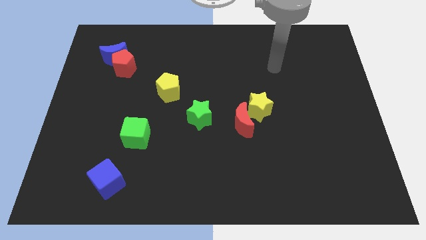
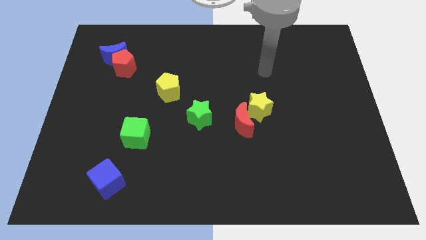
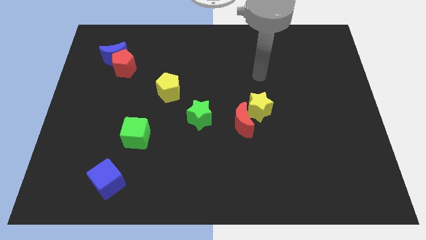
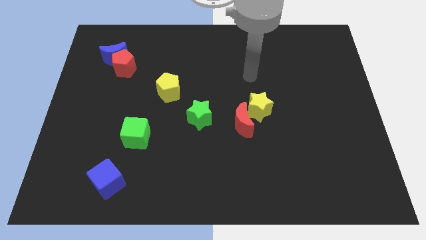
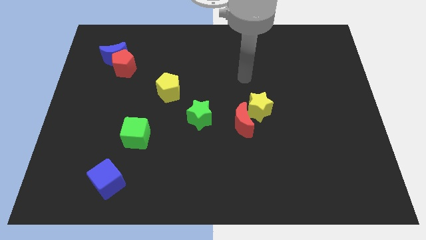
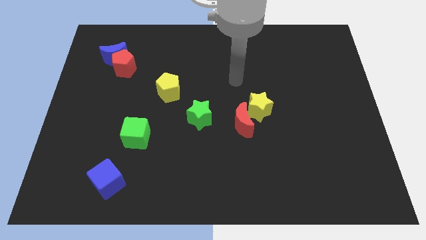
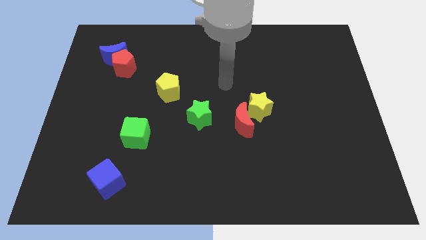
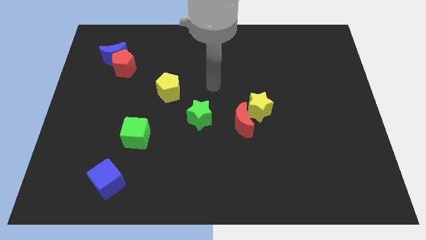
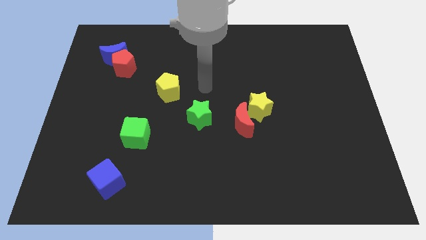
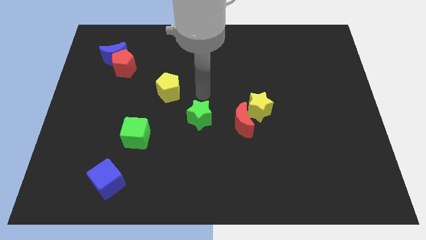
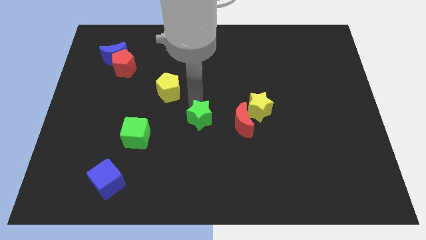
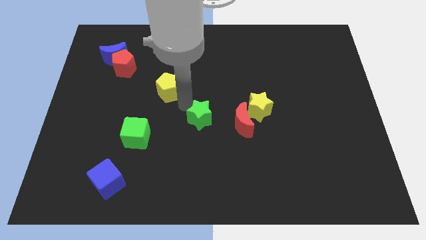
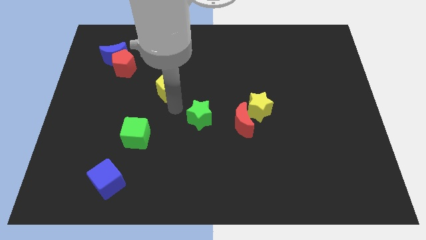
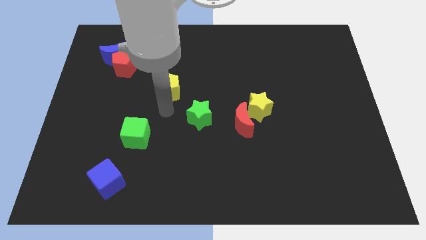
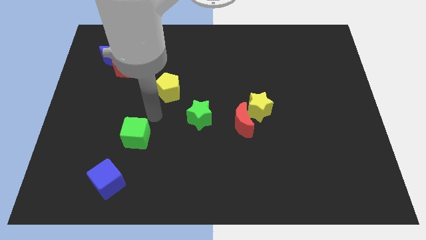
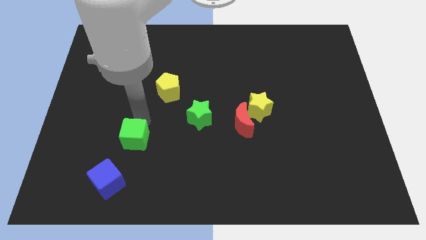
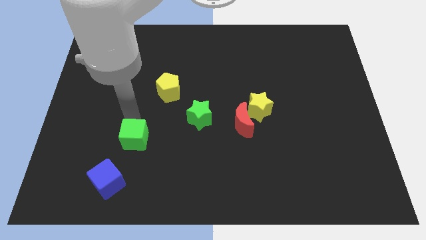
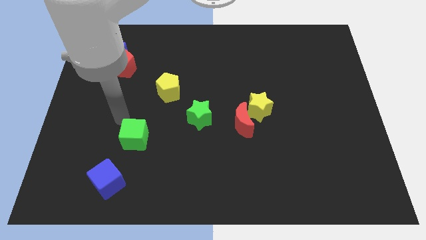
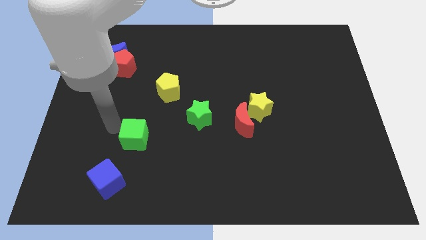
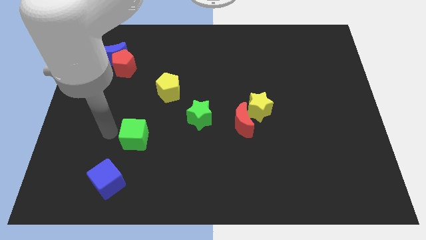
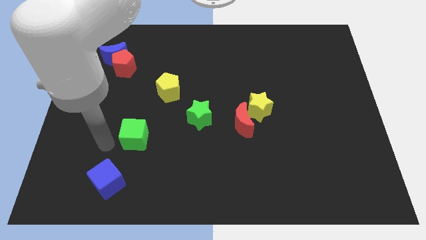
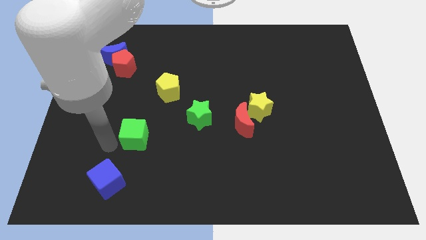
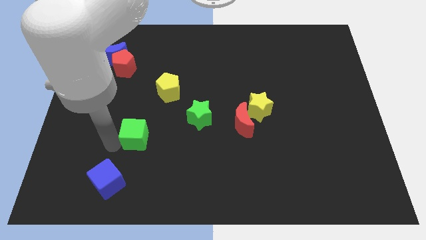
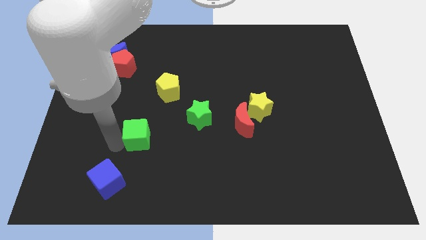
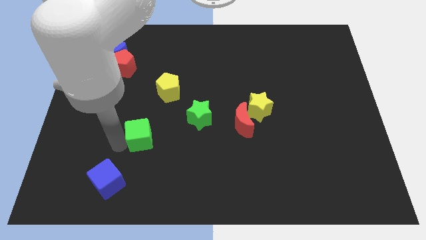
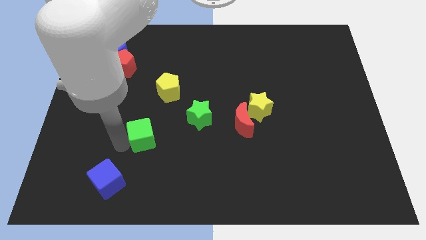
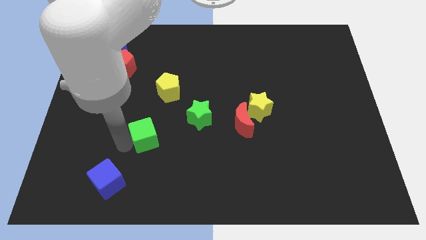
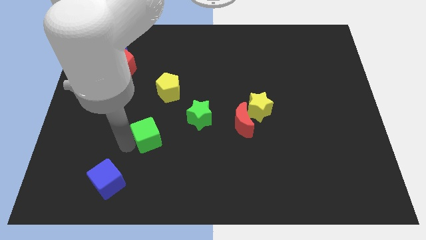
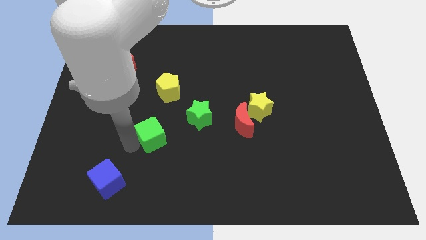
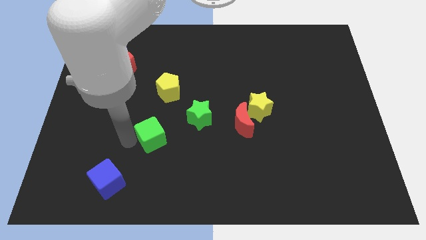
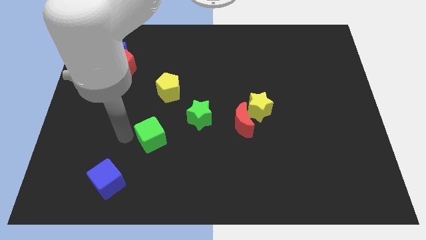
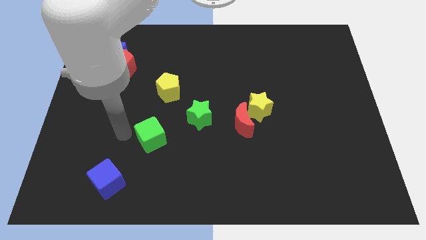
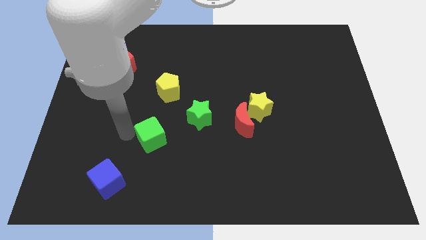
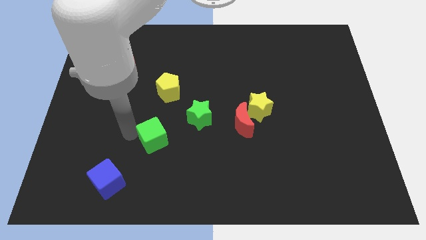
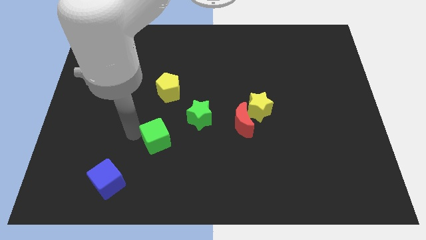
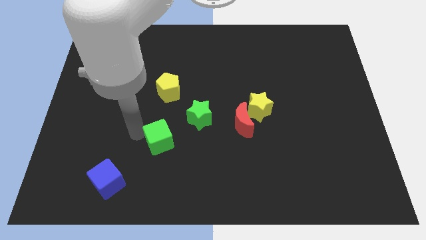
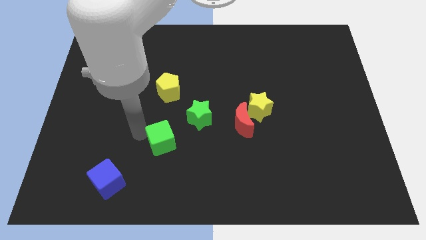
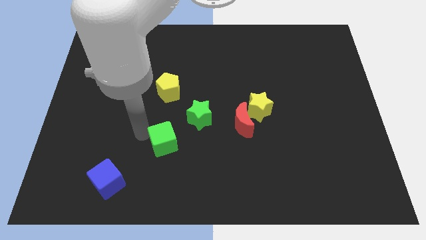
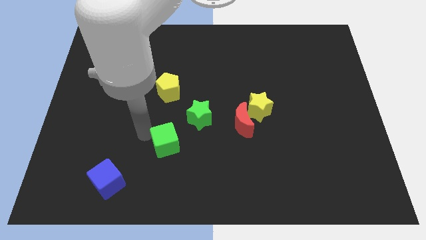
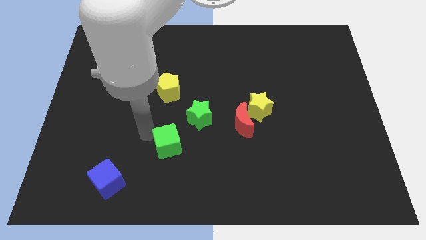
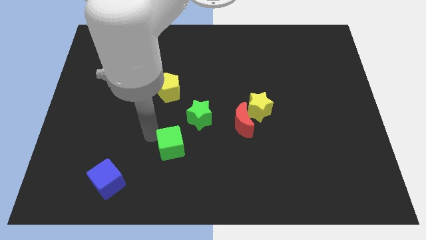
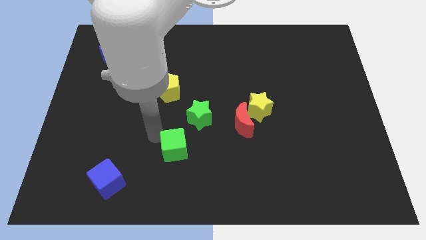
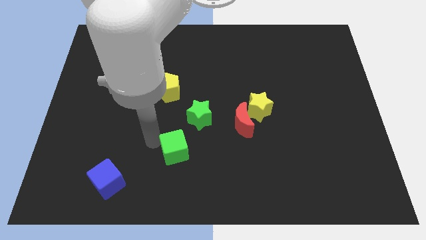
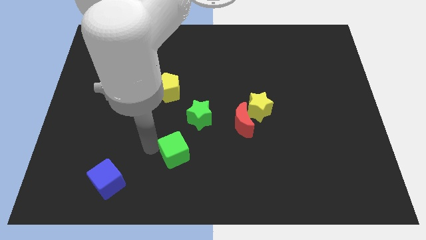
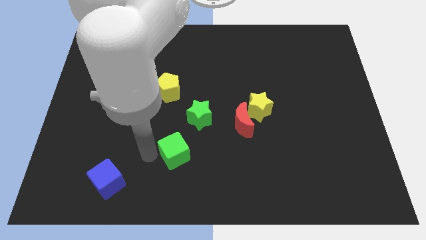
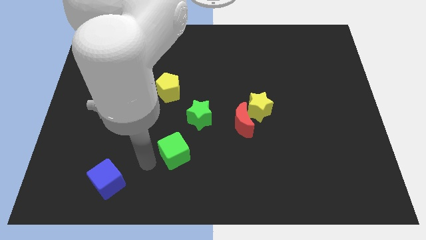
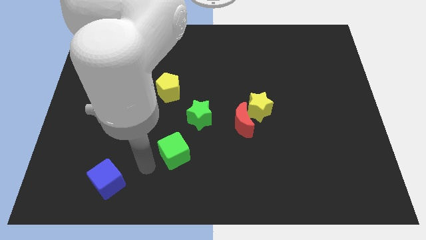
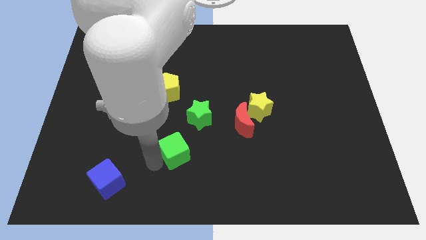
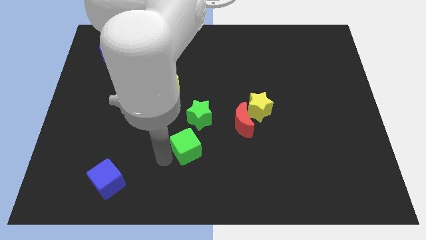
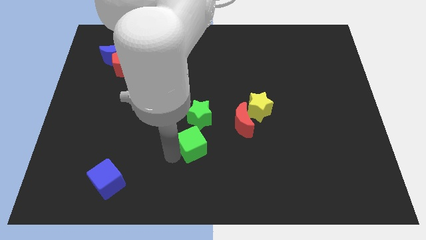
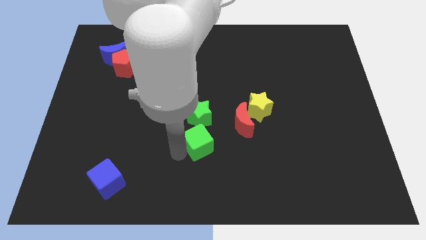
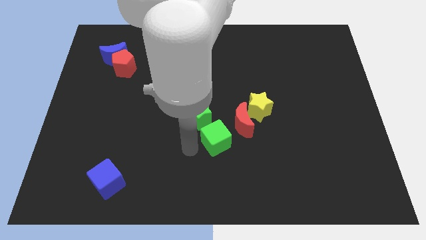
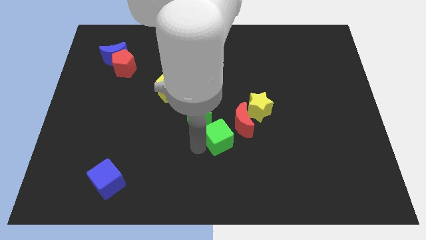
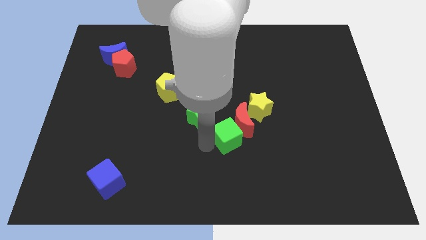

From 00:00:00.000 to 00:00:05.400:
slide the green cube towards the red moon

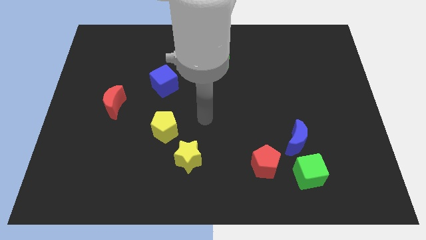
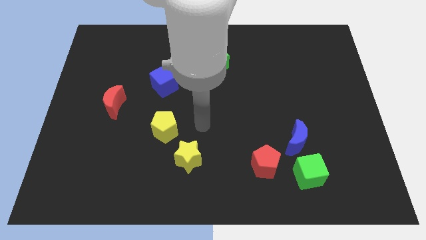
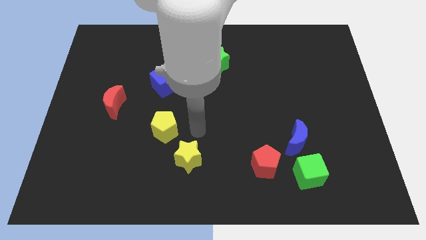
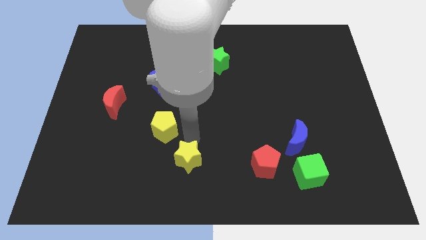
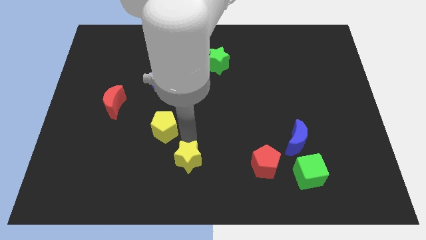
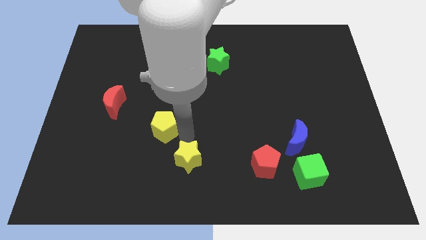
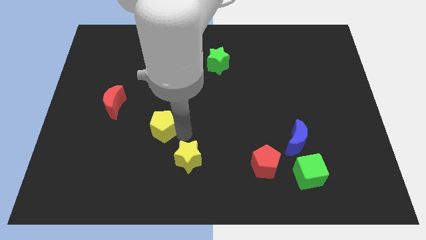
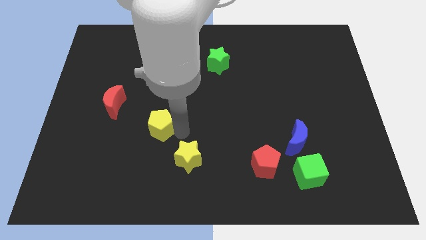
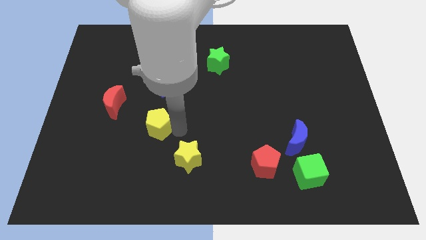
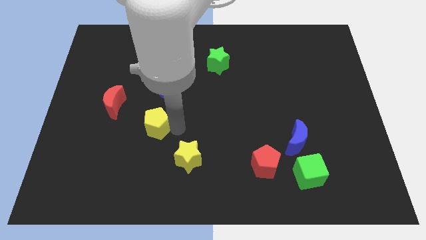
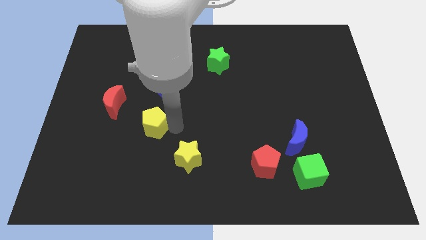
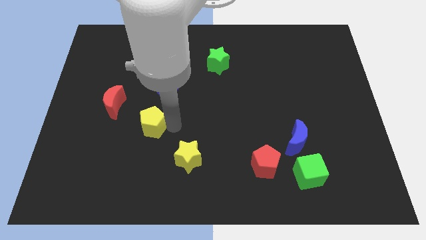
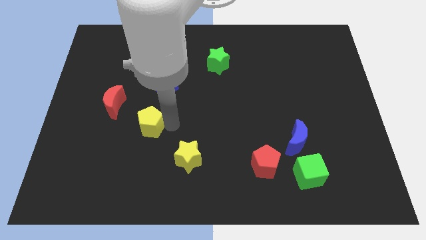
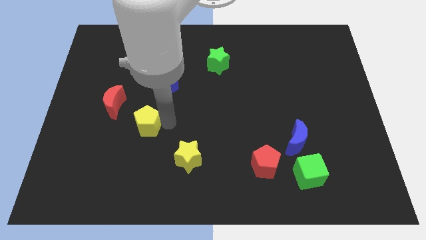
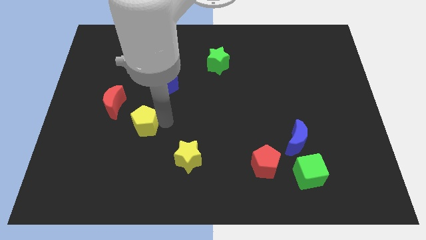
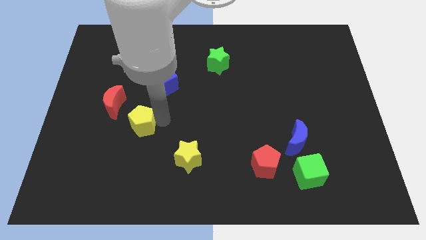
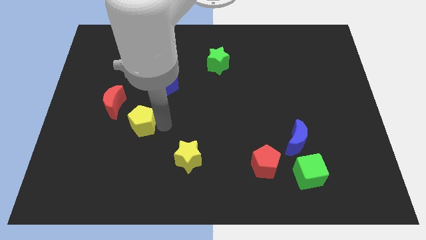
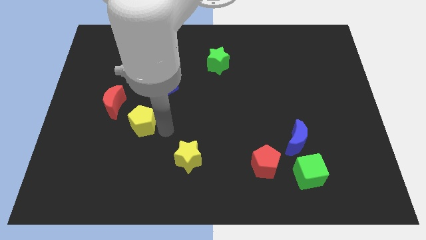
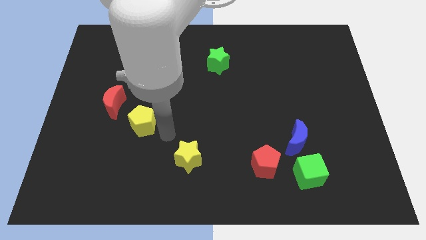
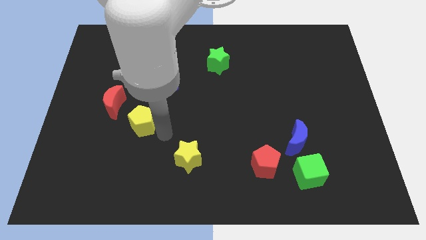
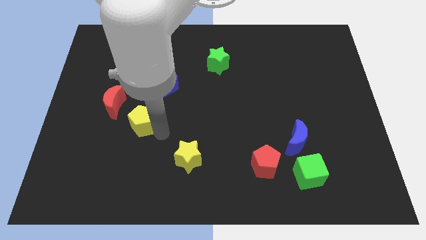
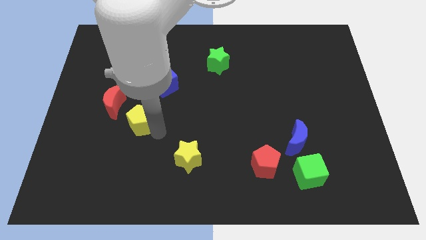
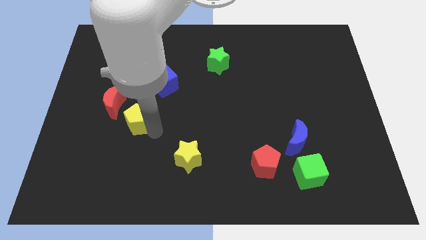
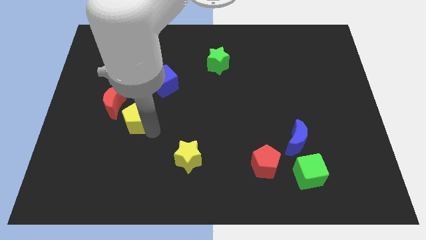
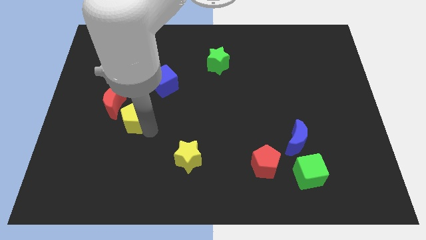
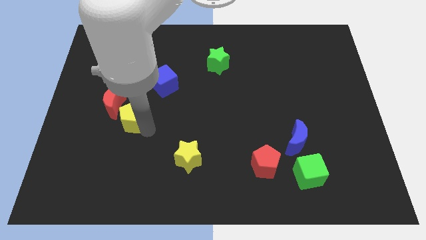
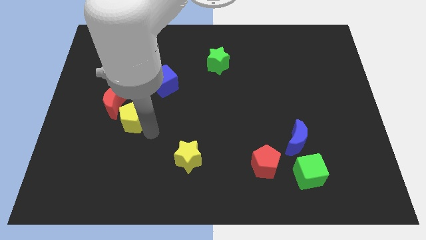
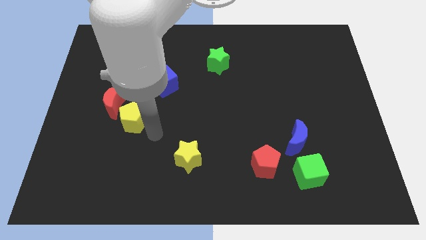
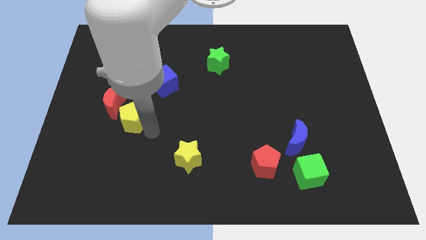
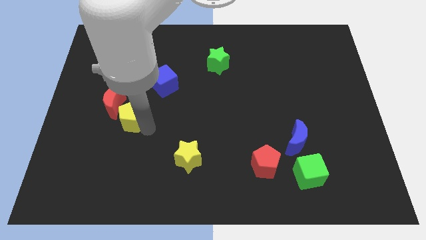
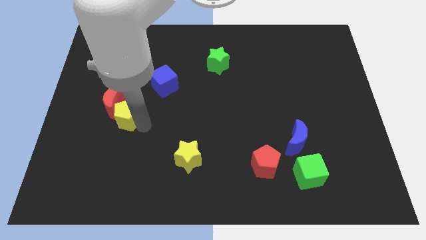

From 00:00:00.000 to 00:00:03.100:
move the yellow pentagon towards the red moon
